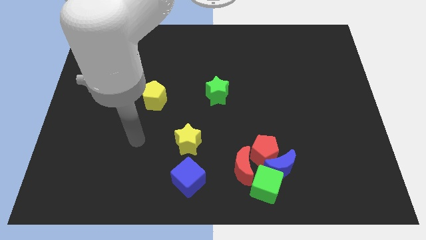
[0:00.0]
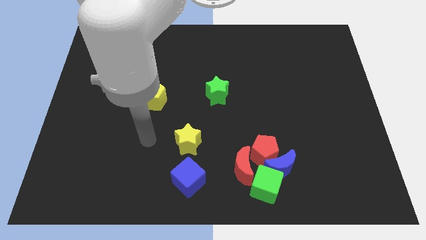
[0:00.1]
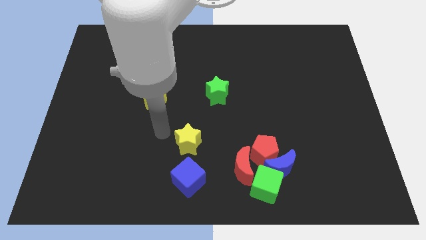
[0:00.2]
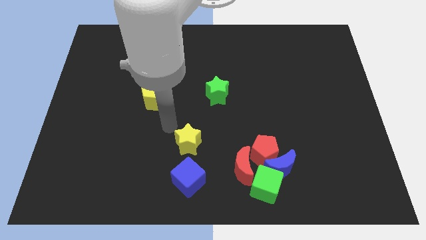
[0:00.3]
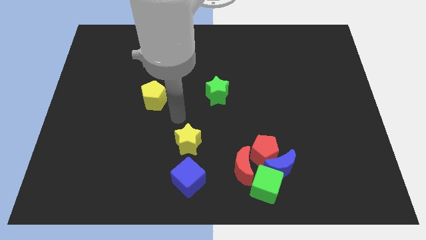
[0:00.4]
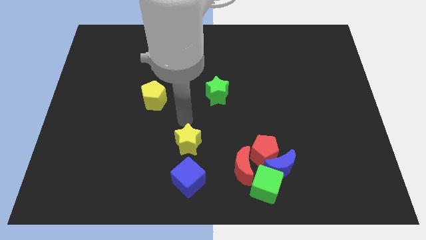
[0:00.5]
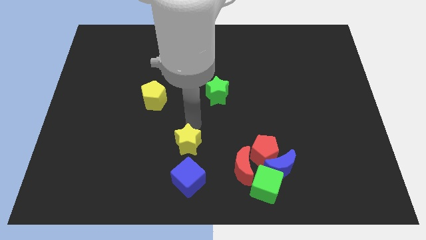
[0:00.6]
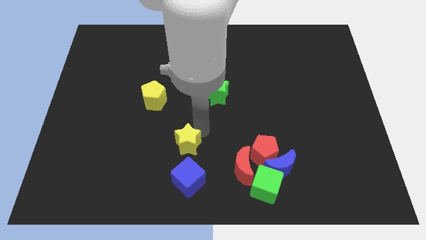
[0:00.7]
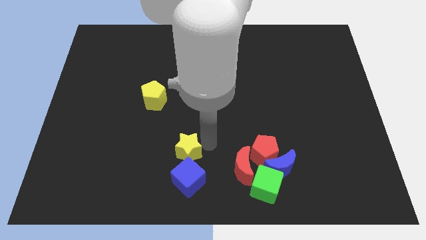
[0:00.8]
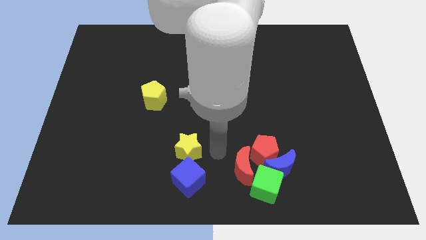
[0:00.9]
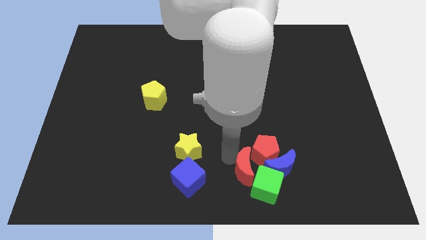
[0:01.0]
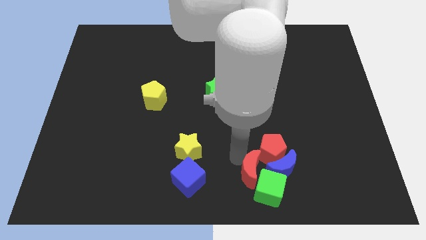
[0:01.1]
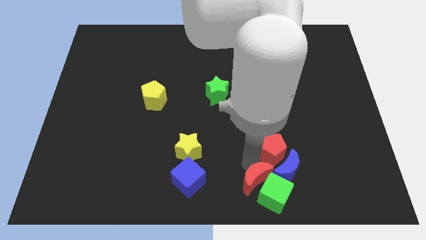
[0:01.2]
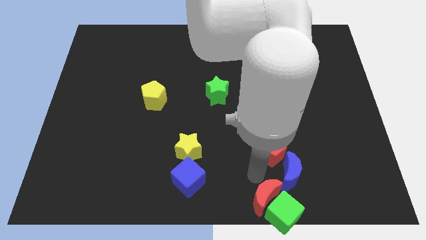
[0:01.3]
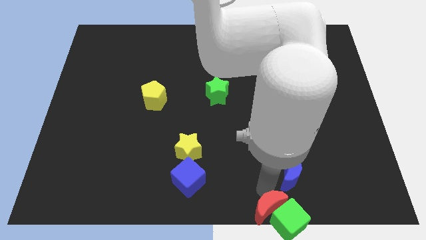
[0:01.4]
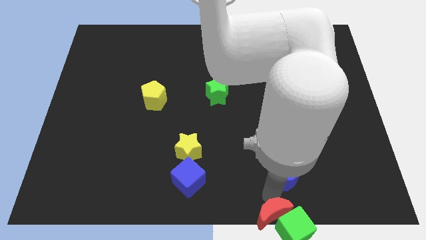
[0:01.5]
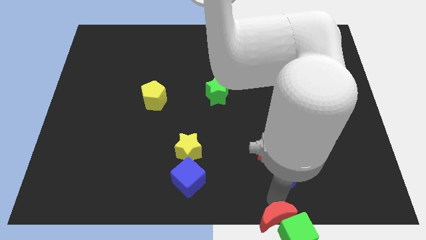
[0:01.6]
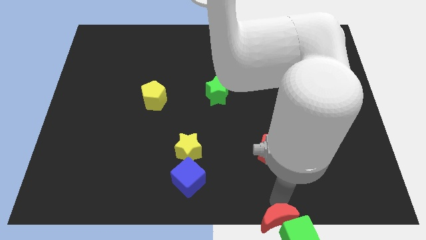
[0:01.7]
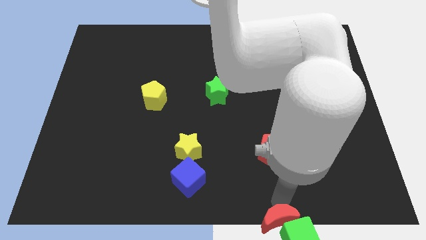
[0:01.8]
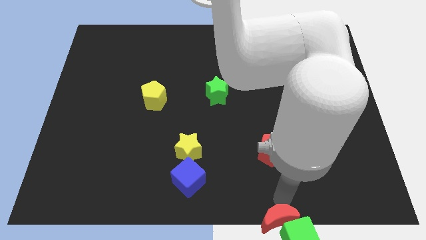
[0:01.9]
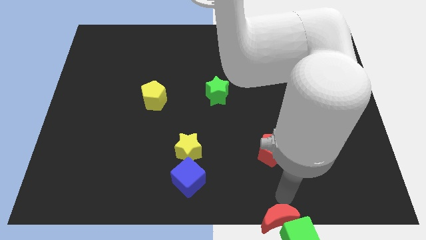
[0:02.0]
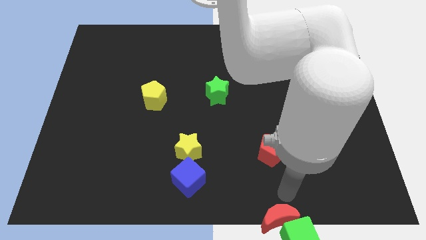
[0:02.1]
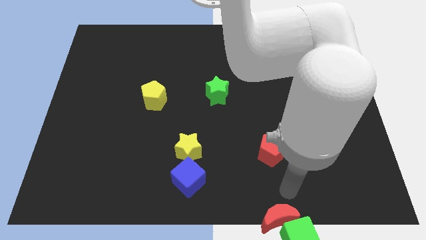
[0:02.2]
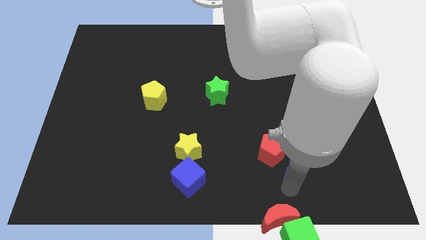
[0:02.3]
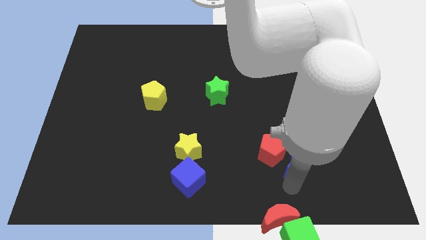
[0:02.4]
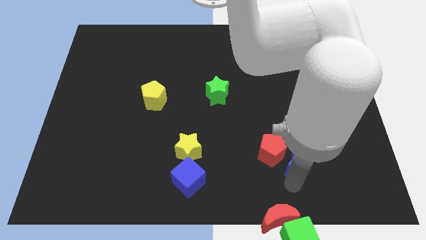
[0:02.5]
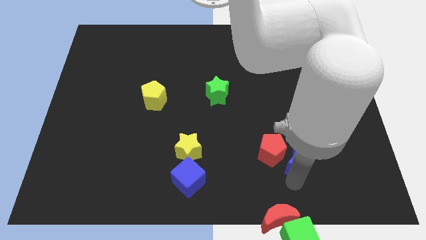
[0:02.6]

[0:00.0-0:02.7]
pull the blue moon apart from the red pentagon, green cube, and red moon

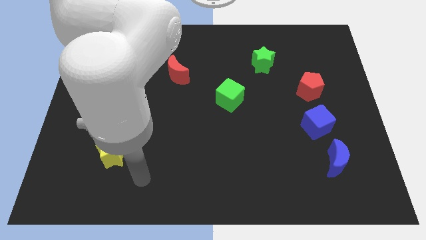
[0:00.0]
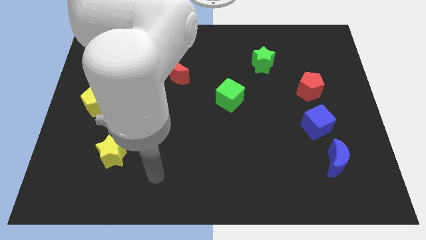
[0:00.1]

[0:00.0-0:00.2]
separate the blue moon from the blue cube

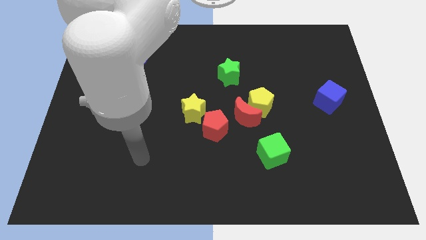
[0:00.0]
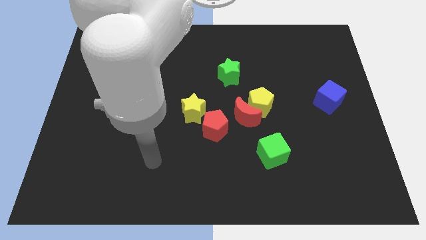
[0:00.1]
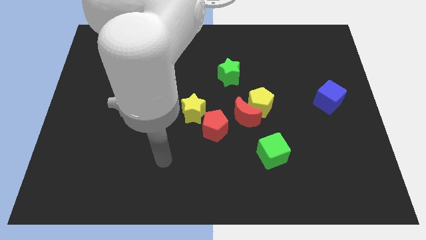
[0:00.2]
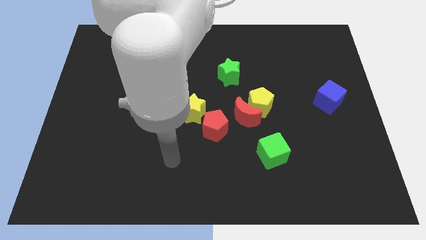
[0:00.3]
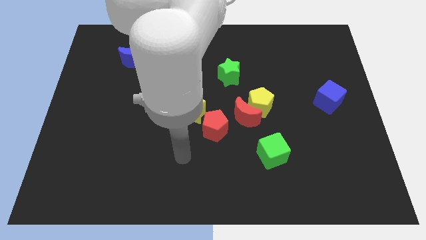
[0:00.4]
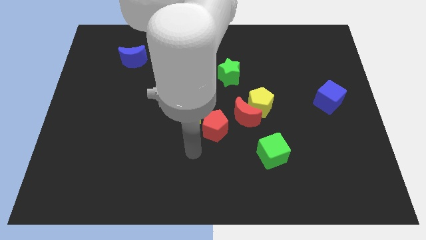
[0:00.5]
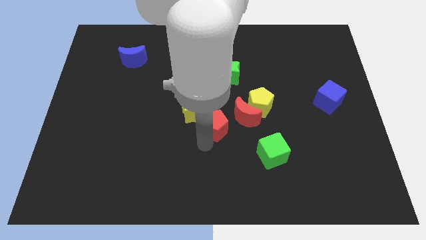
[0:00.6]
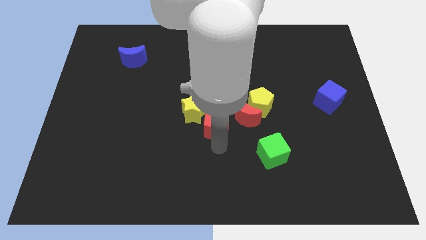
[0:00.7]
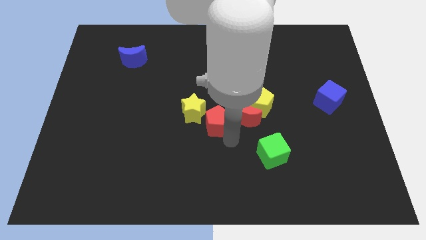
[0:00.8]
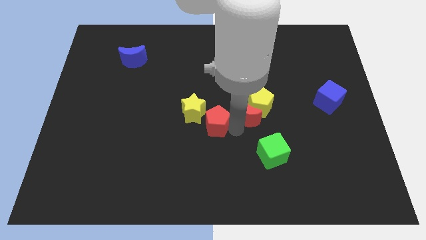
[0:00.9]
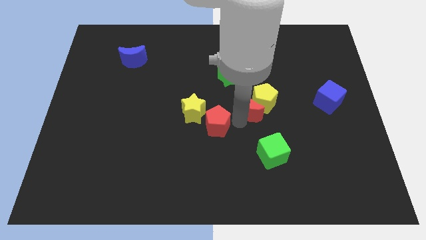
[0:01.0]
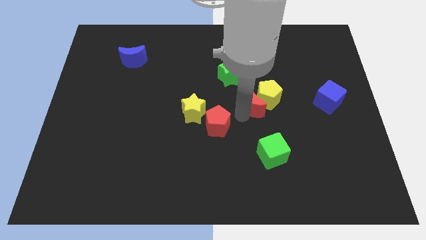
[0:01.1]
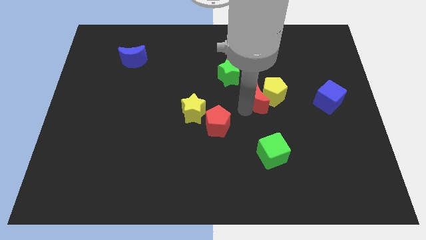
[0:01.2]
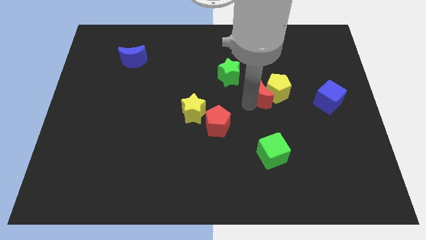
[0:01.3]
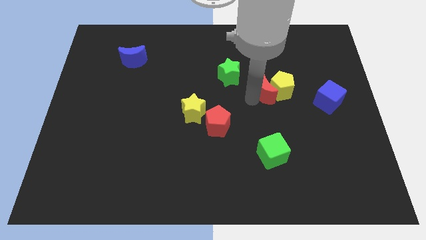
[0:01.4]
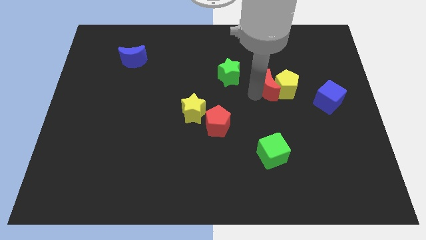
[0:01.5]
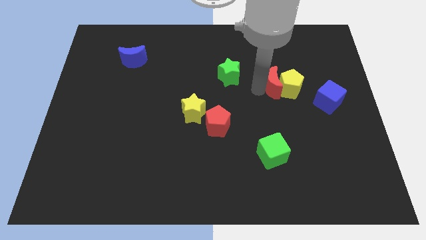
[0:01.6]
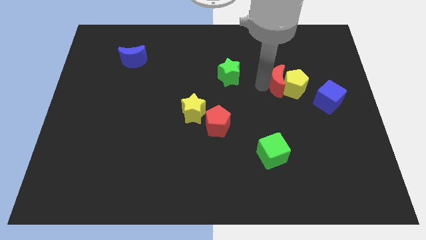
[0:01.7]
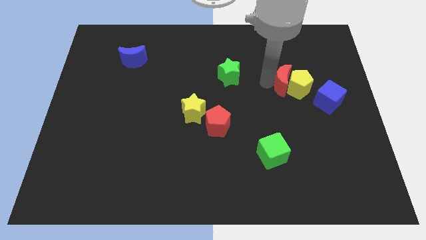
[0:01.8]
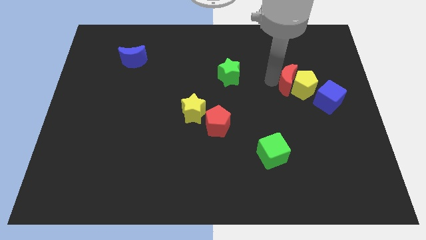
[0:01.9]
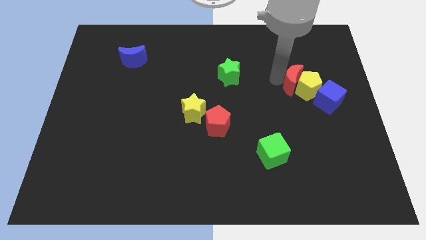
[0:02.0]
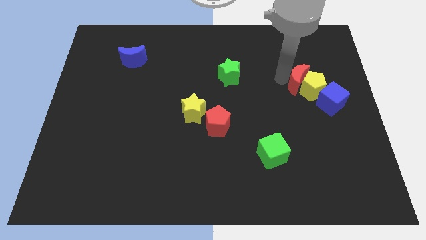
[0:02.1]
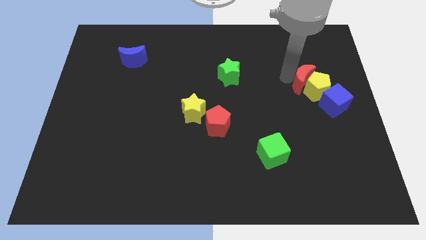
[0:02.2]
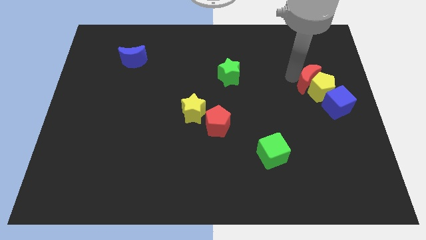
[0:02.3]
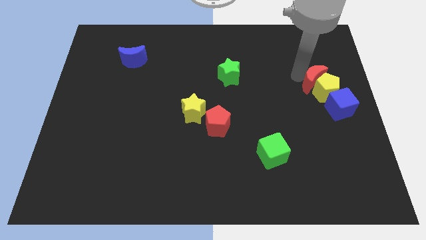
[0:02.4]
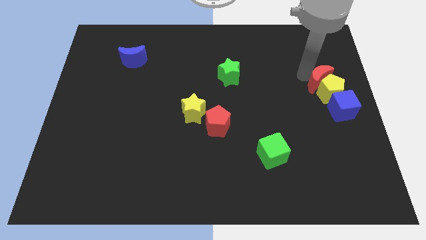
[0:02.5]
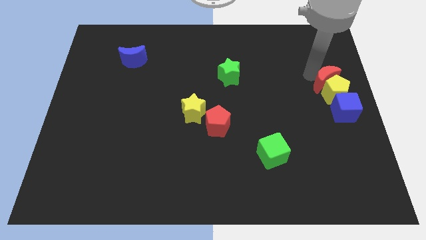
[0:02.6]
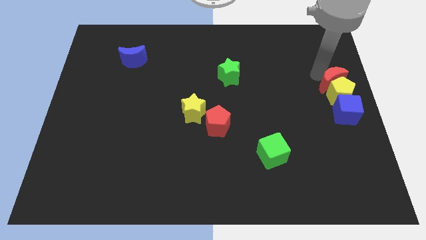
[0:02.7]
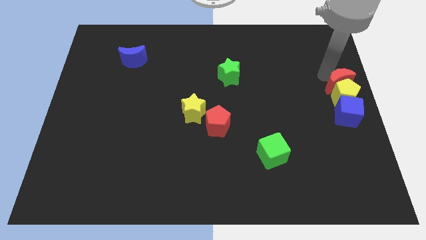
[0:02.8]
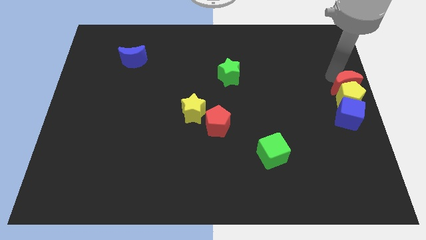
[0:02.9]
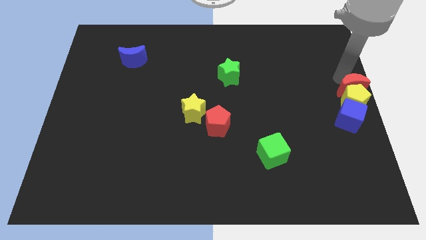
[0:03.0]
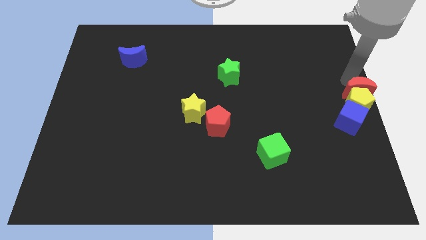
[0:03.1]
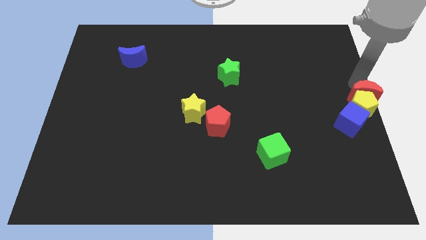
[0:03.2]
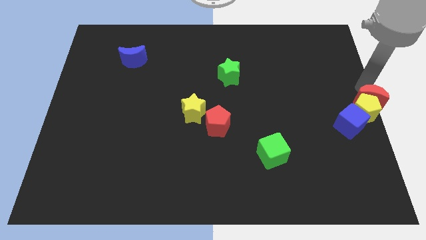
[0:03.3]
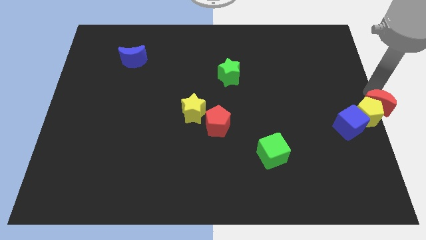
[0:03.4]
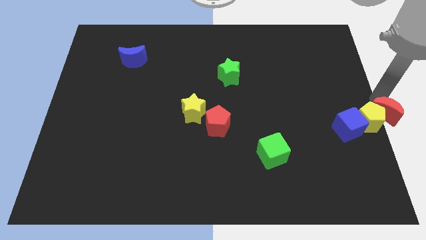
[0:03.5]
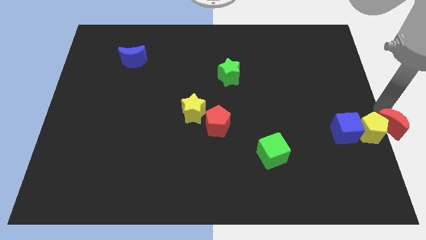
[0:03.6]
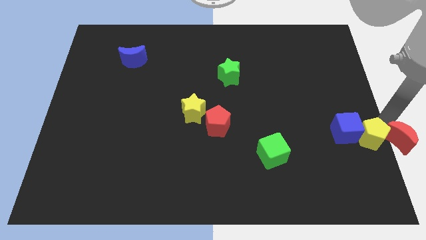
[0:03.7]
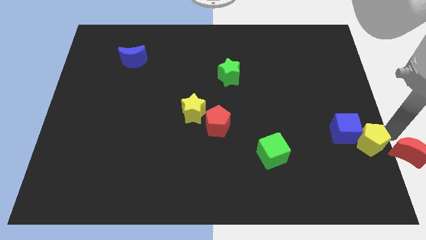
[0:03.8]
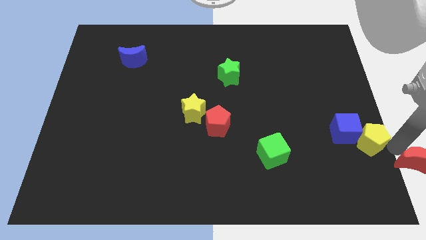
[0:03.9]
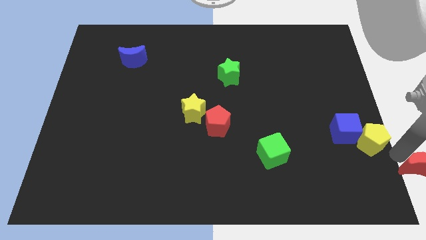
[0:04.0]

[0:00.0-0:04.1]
pull the yellow pentagon apart from the red moon

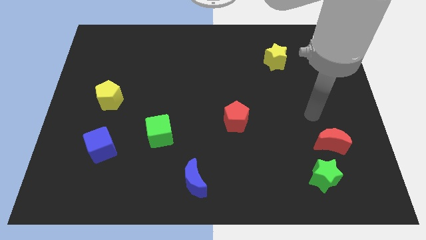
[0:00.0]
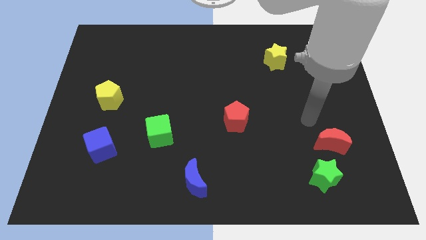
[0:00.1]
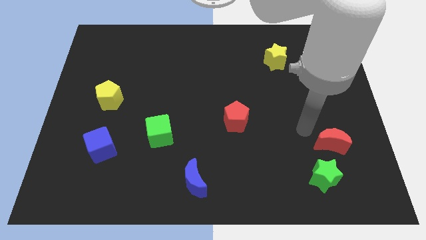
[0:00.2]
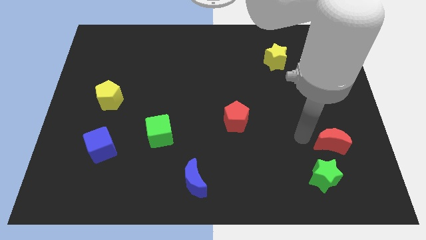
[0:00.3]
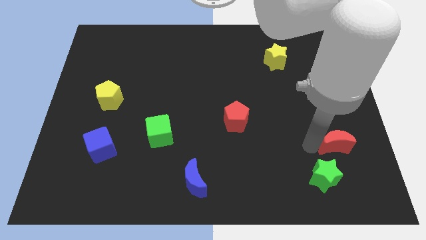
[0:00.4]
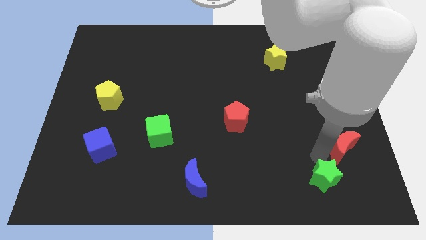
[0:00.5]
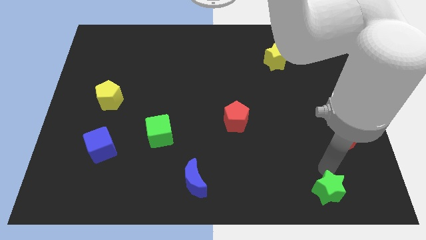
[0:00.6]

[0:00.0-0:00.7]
separate the red moon from the green star

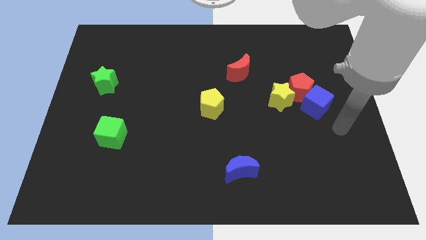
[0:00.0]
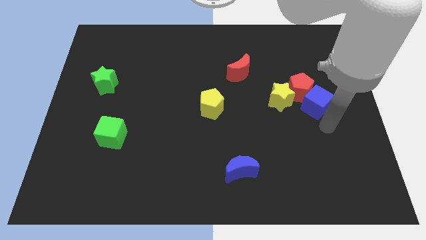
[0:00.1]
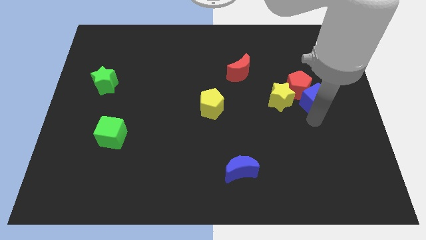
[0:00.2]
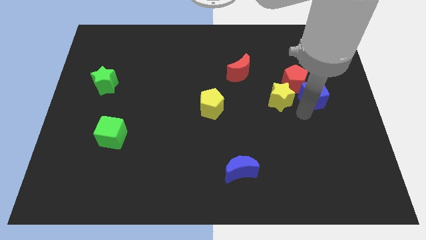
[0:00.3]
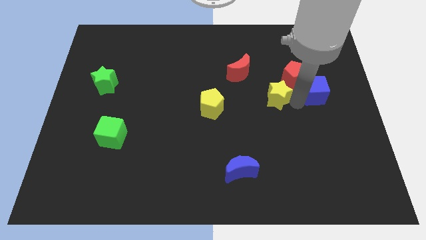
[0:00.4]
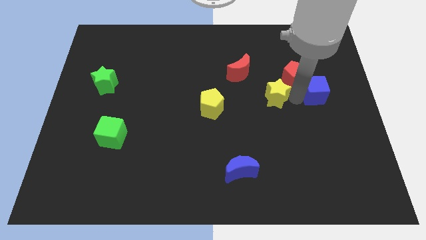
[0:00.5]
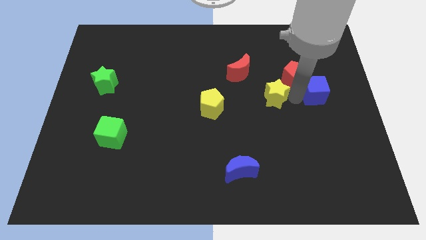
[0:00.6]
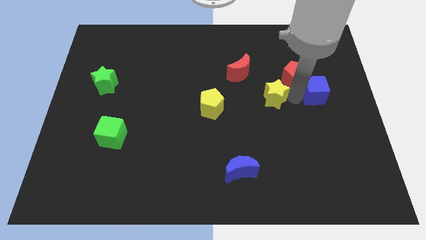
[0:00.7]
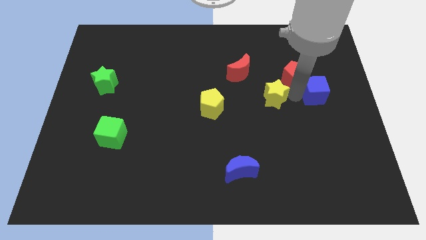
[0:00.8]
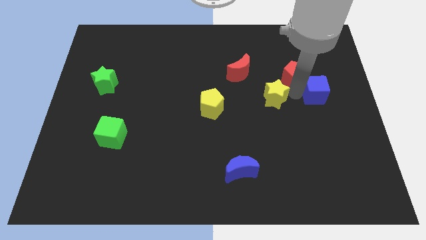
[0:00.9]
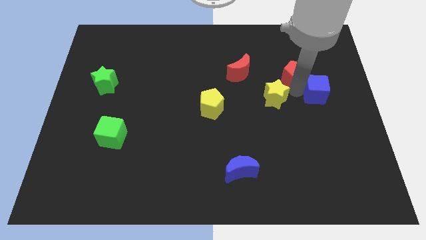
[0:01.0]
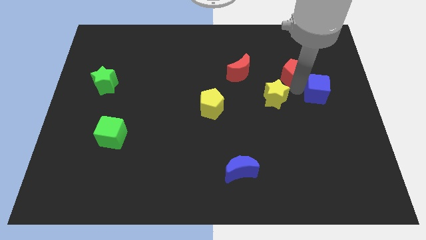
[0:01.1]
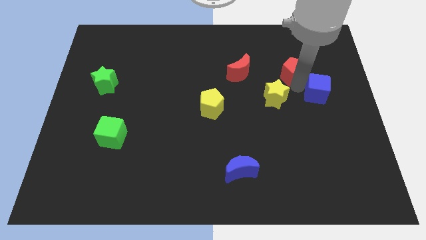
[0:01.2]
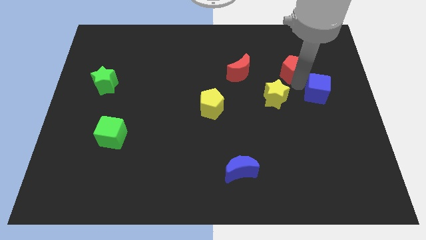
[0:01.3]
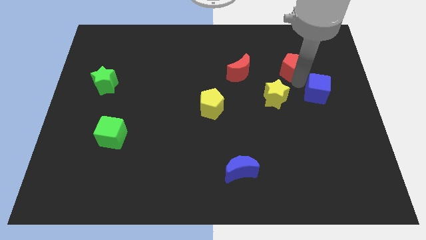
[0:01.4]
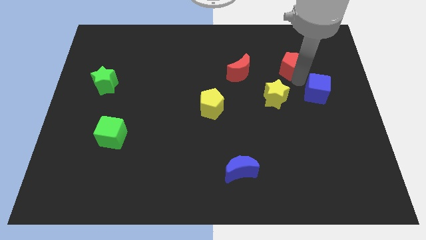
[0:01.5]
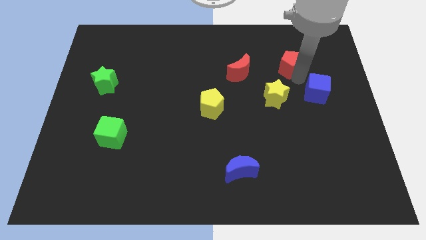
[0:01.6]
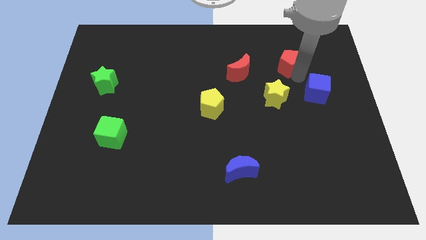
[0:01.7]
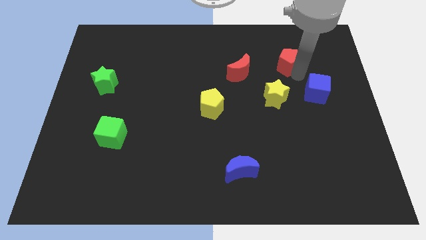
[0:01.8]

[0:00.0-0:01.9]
separate the red pentagon from the blue cube and yellow star
